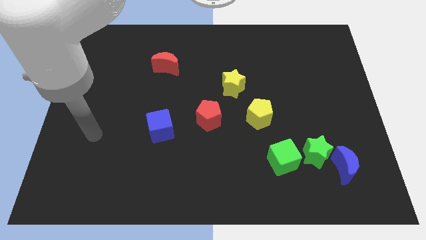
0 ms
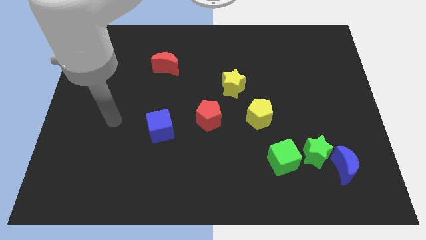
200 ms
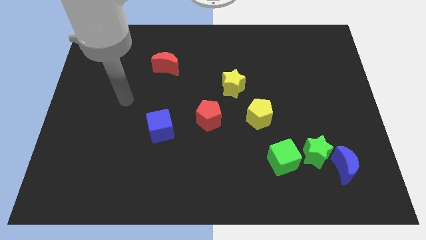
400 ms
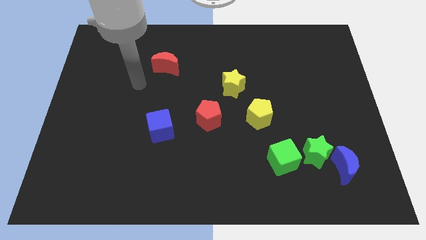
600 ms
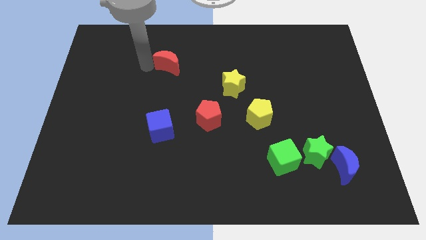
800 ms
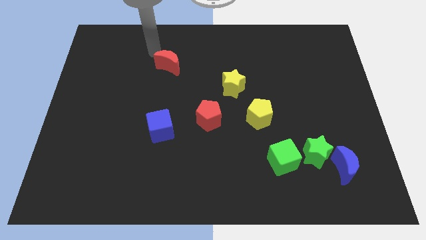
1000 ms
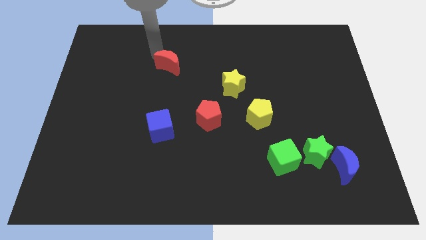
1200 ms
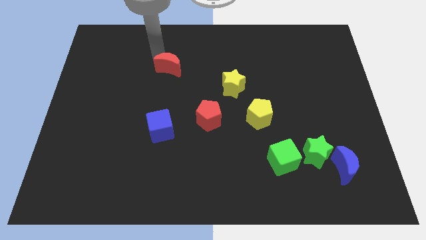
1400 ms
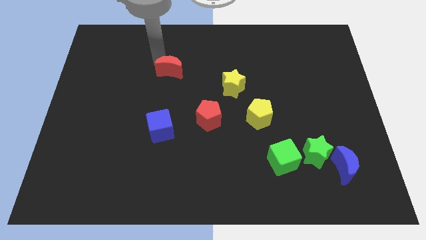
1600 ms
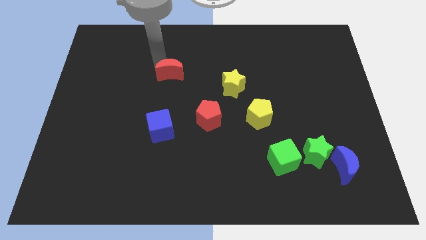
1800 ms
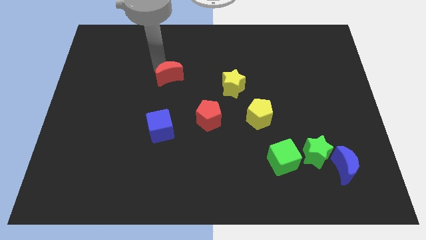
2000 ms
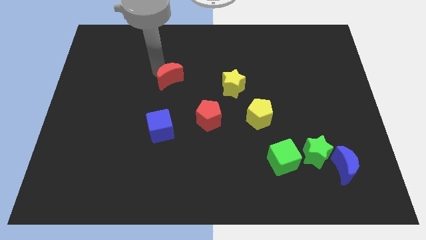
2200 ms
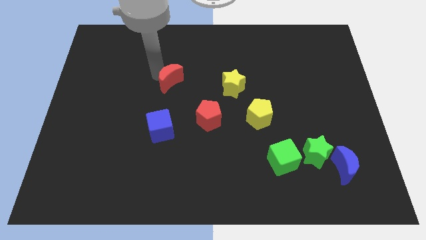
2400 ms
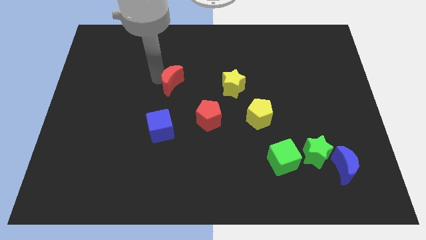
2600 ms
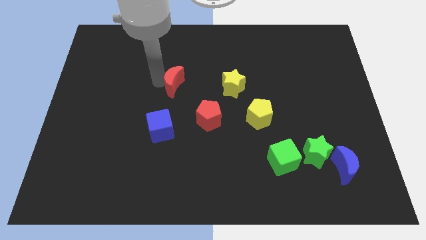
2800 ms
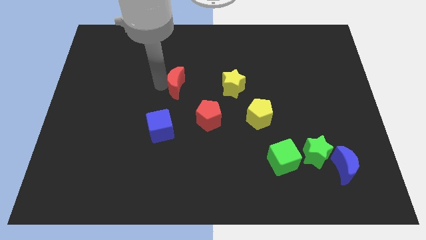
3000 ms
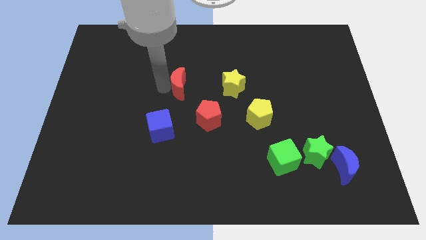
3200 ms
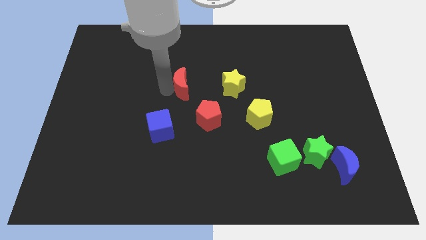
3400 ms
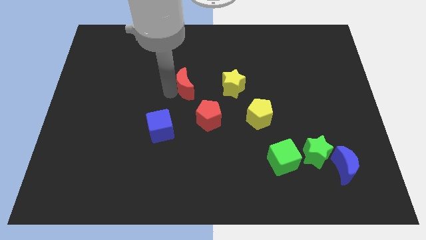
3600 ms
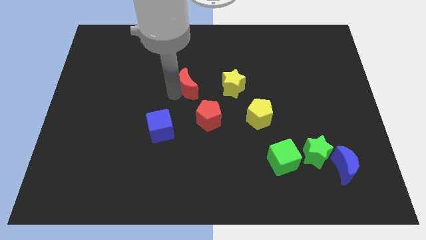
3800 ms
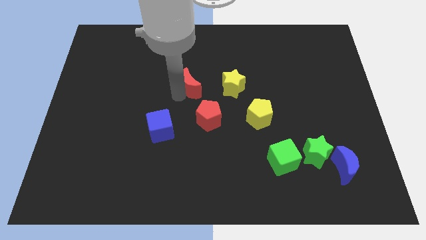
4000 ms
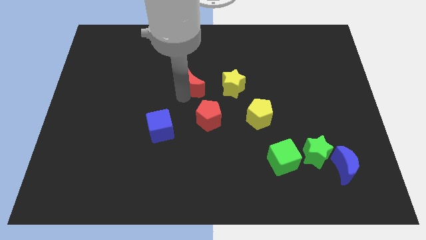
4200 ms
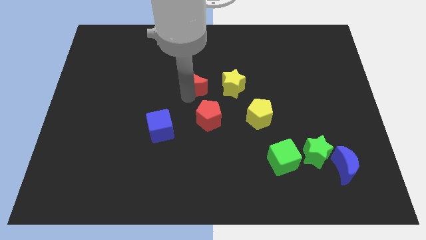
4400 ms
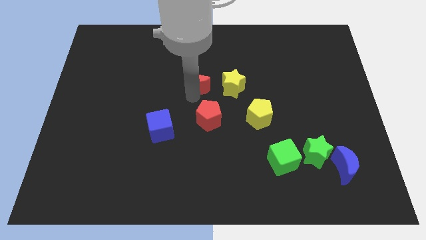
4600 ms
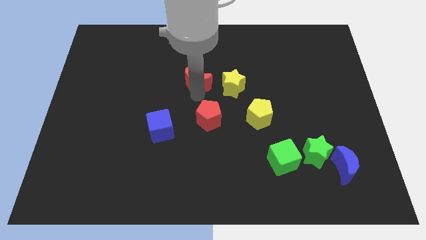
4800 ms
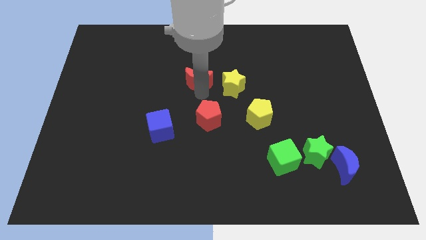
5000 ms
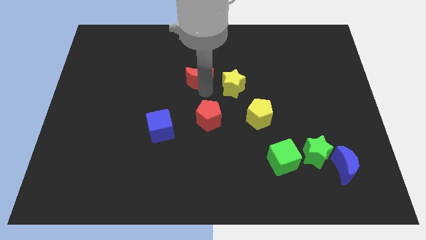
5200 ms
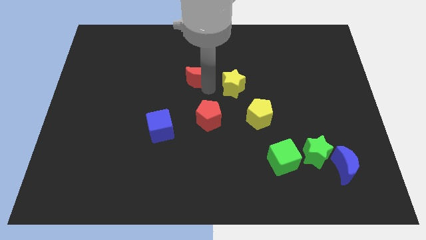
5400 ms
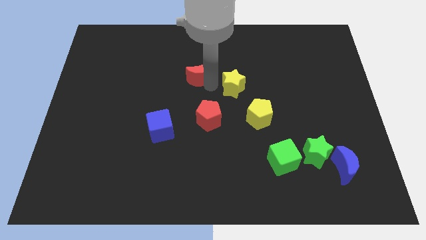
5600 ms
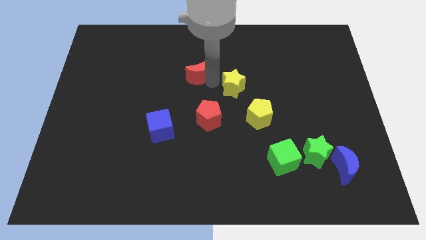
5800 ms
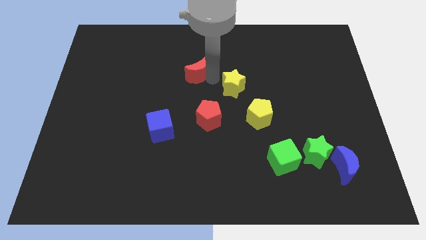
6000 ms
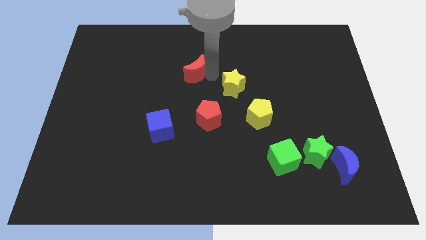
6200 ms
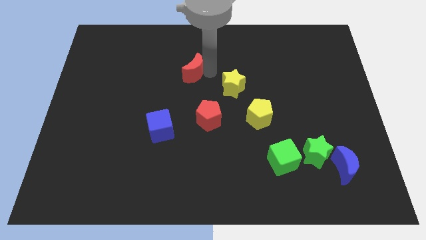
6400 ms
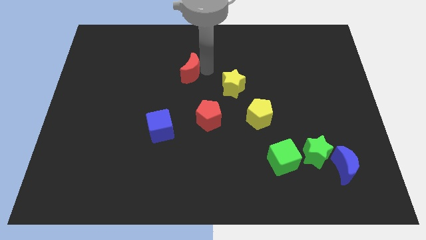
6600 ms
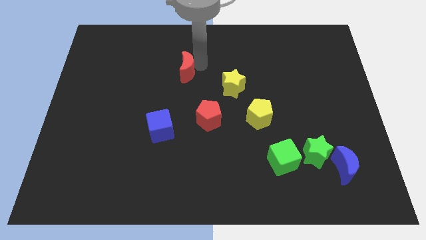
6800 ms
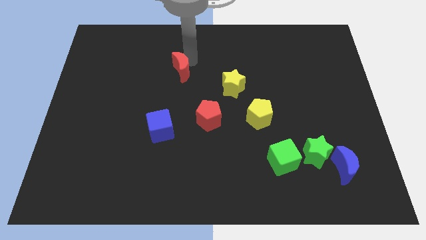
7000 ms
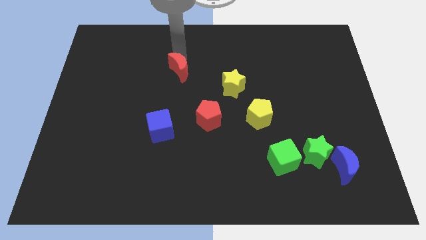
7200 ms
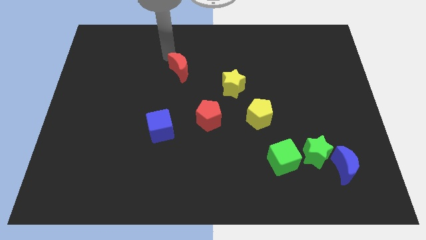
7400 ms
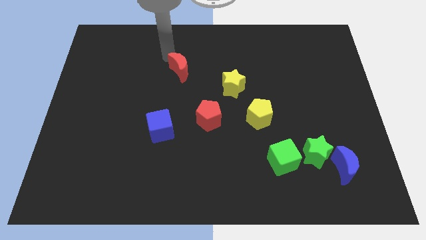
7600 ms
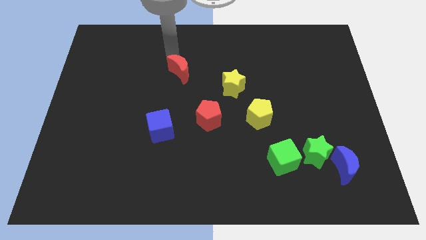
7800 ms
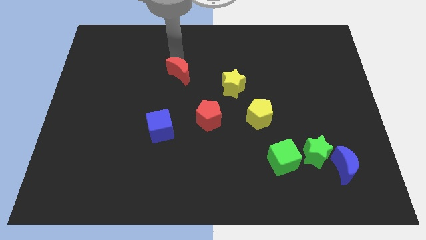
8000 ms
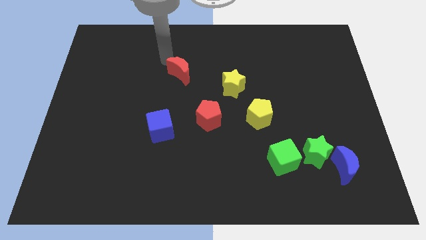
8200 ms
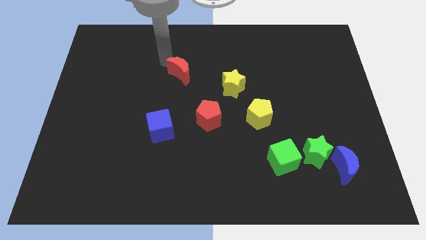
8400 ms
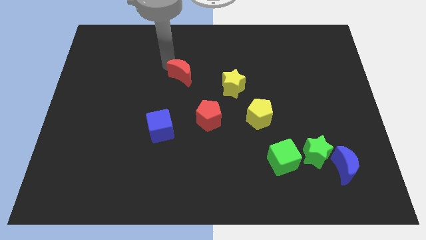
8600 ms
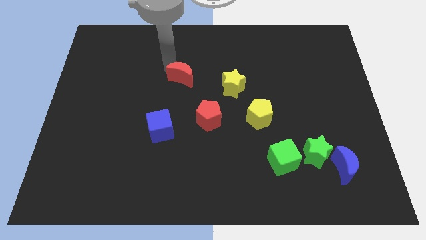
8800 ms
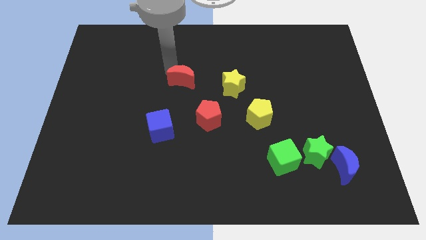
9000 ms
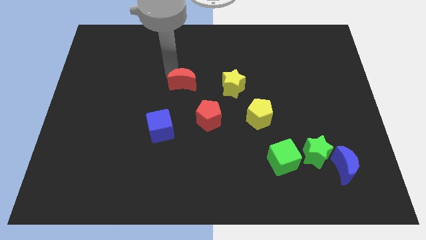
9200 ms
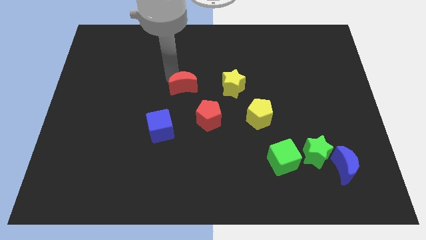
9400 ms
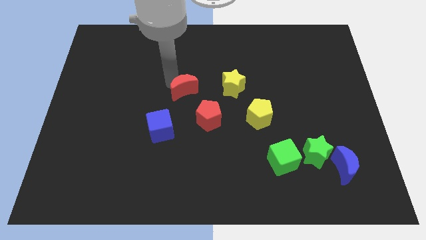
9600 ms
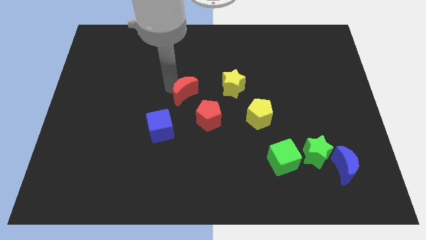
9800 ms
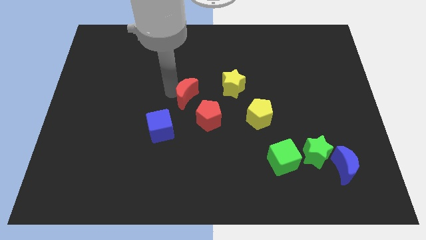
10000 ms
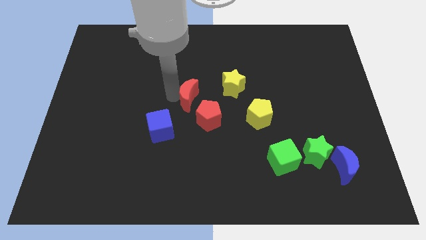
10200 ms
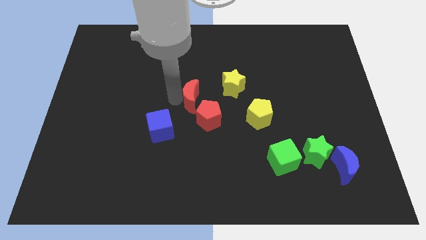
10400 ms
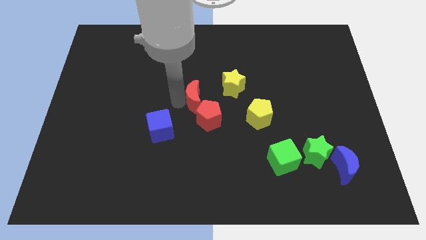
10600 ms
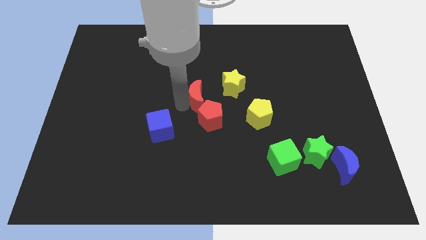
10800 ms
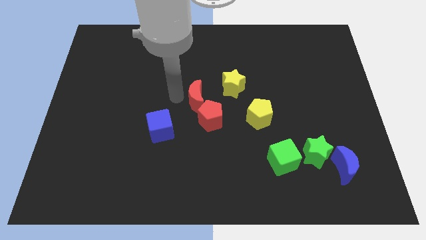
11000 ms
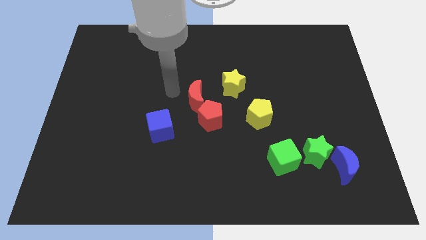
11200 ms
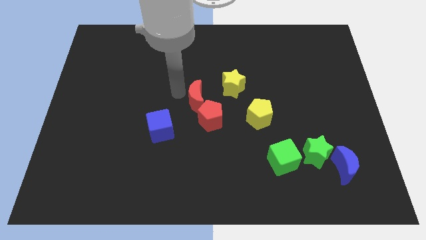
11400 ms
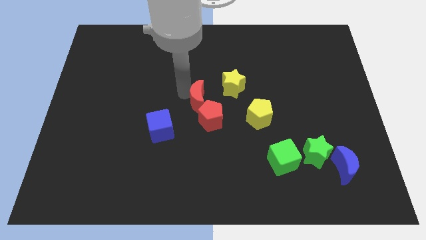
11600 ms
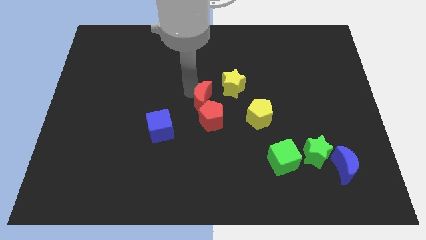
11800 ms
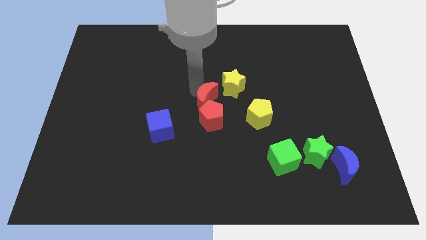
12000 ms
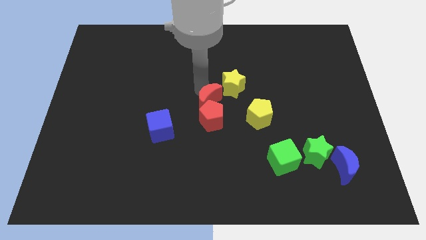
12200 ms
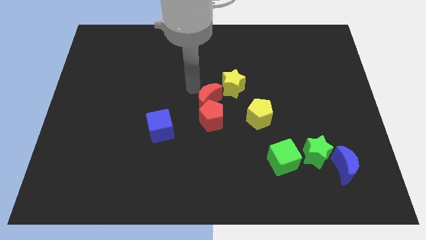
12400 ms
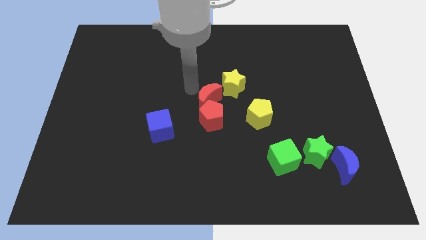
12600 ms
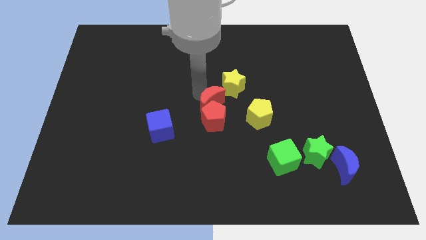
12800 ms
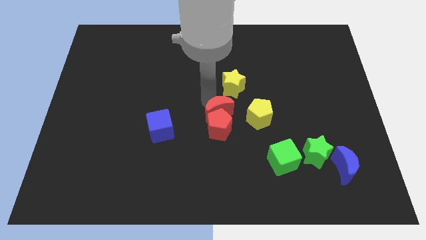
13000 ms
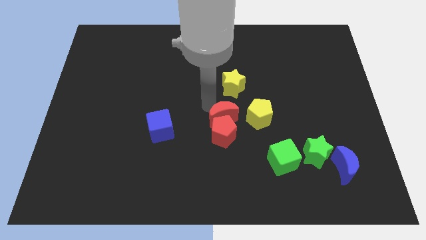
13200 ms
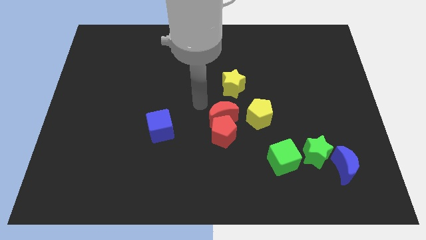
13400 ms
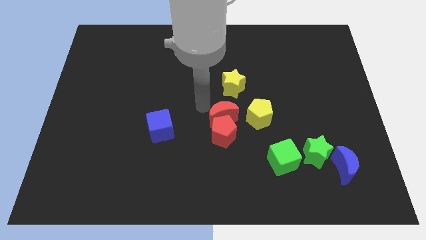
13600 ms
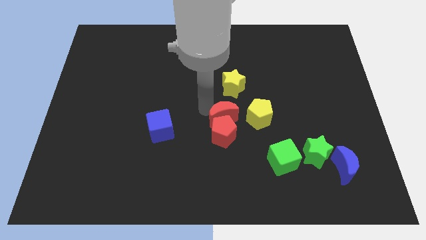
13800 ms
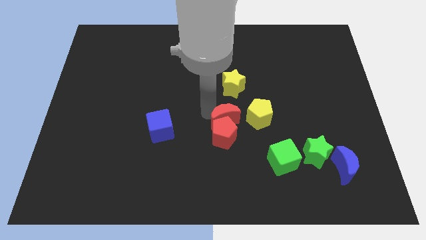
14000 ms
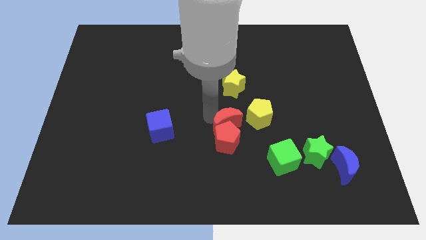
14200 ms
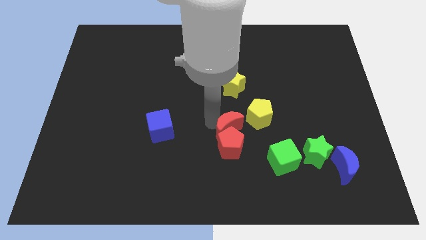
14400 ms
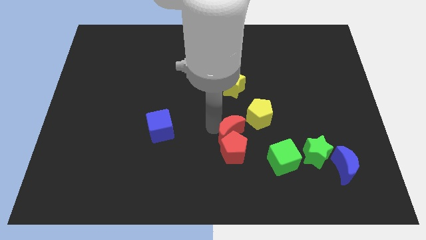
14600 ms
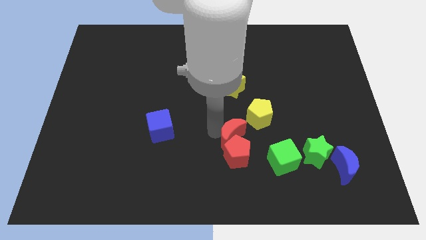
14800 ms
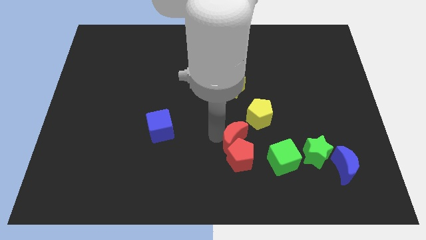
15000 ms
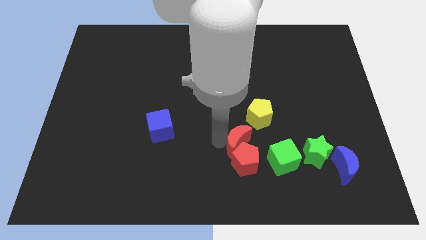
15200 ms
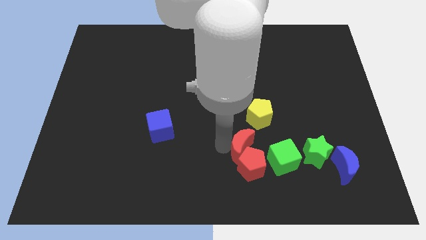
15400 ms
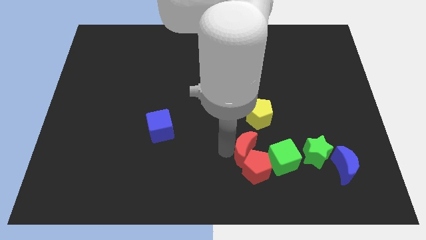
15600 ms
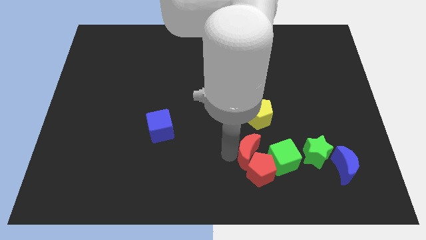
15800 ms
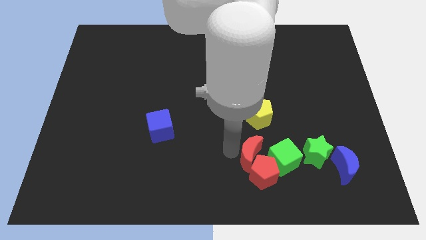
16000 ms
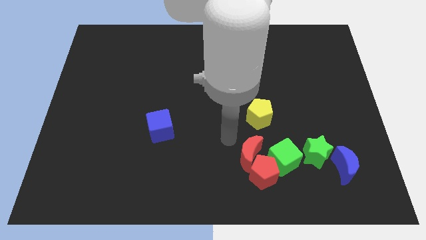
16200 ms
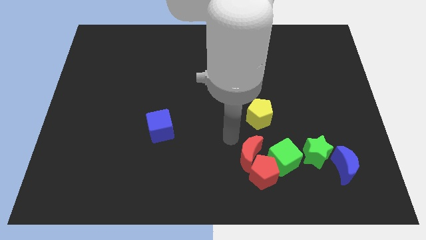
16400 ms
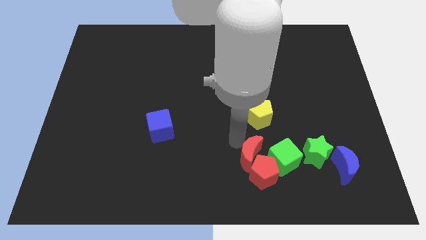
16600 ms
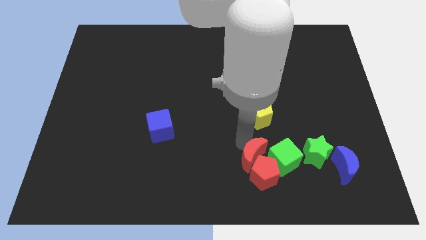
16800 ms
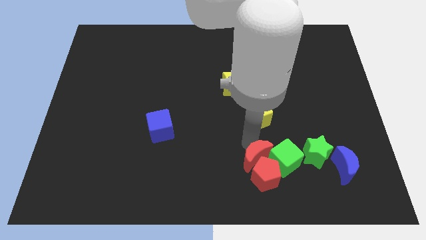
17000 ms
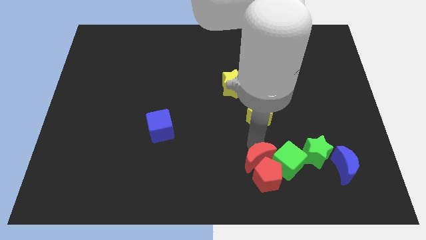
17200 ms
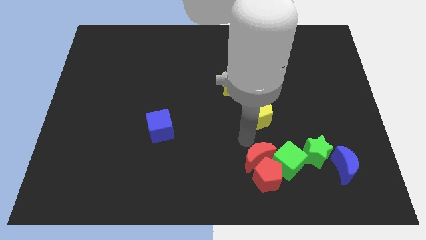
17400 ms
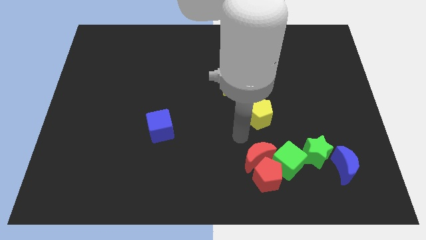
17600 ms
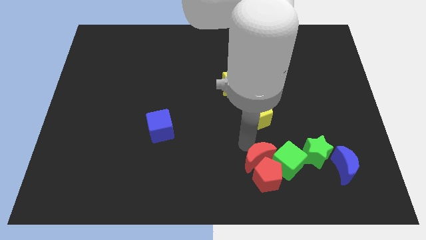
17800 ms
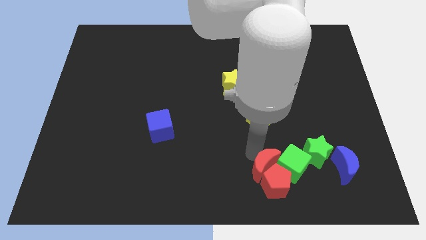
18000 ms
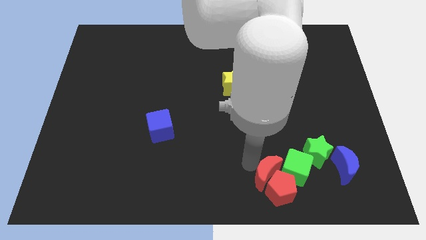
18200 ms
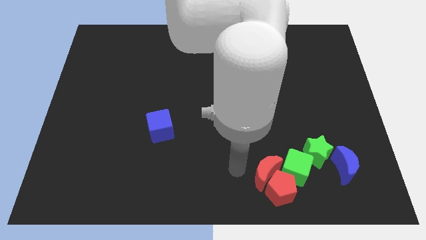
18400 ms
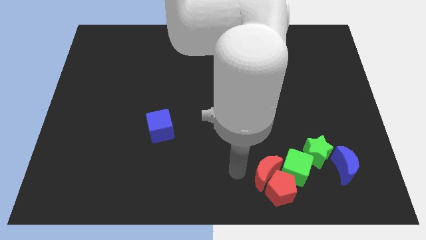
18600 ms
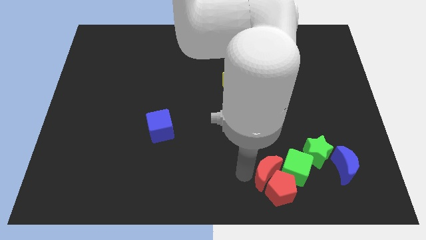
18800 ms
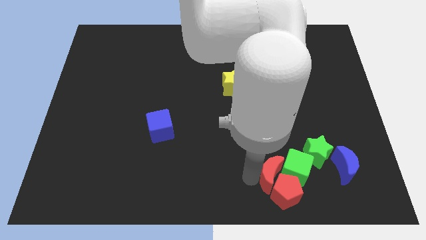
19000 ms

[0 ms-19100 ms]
move the red moon to the bottom left of the green star
